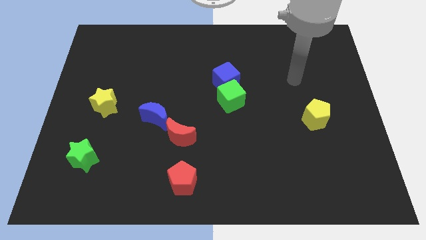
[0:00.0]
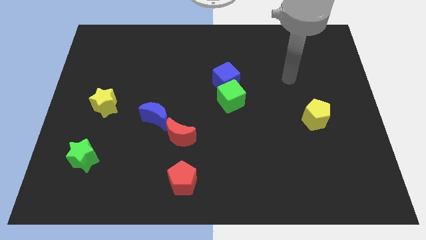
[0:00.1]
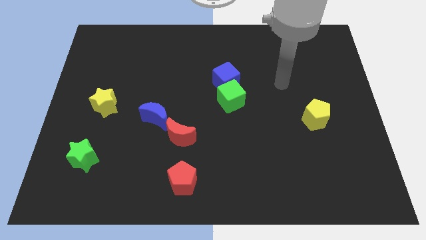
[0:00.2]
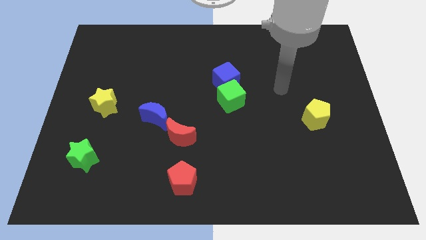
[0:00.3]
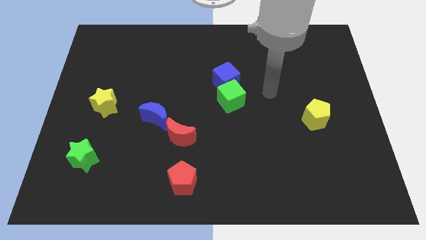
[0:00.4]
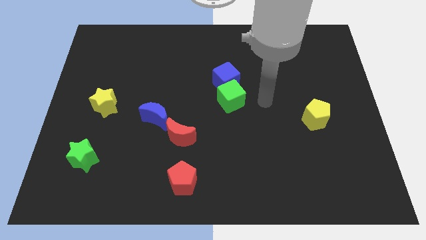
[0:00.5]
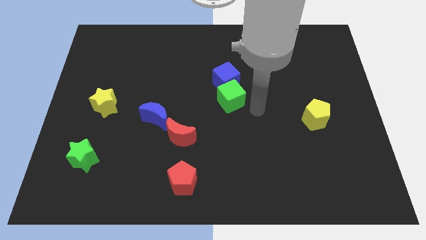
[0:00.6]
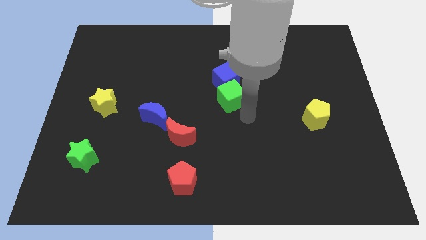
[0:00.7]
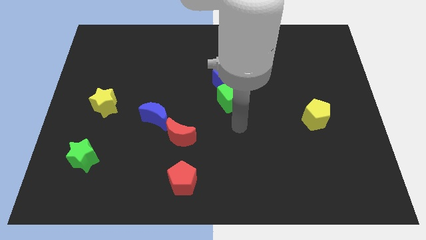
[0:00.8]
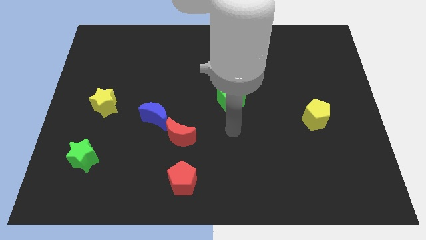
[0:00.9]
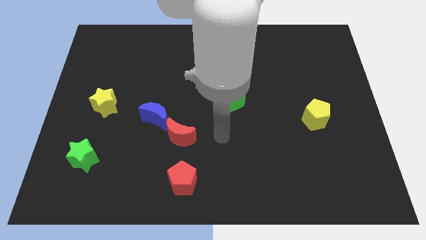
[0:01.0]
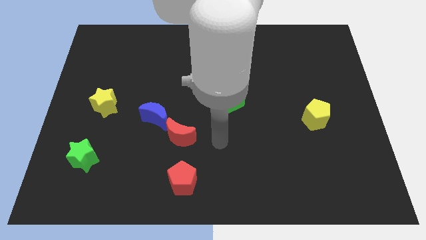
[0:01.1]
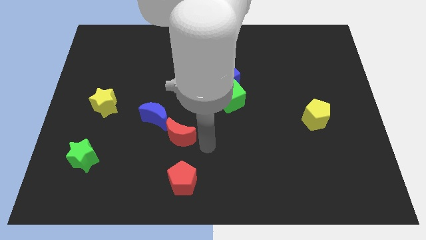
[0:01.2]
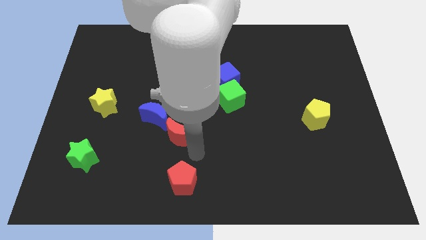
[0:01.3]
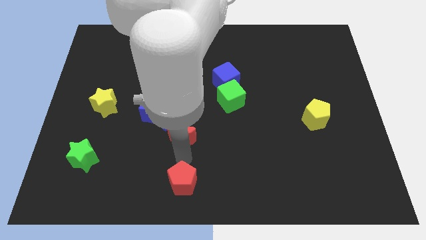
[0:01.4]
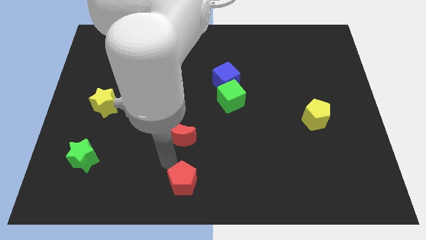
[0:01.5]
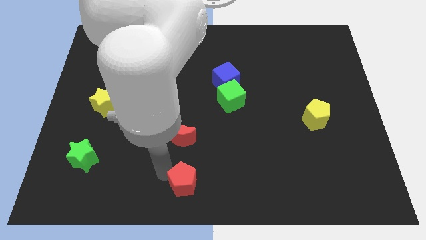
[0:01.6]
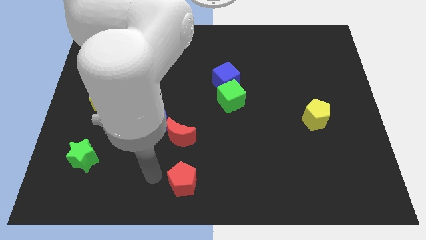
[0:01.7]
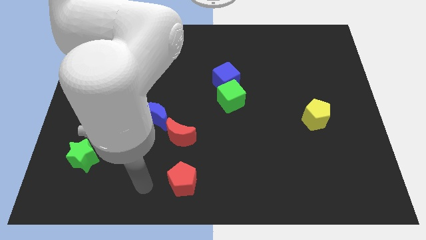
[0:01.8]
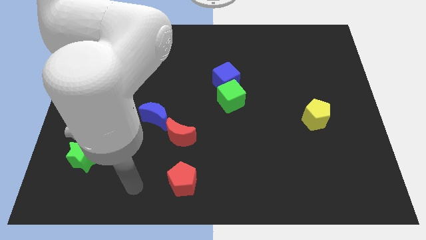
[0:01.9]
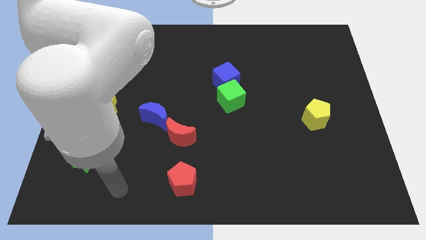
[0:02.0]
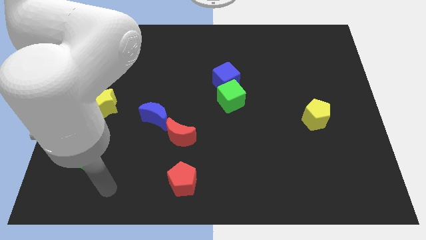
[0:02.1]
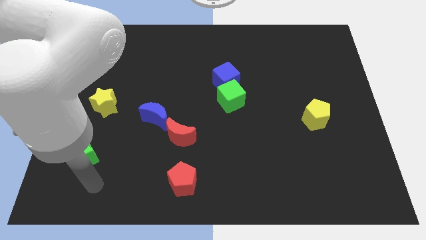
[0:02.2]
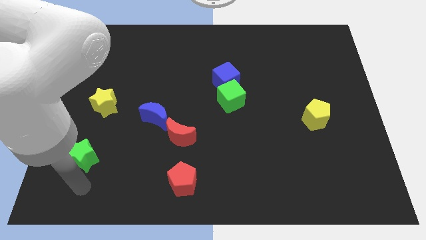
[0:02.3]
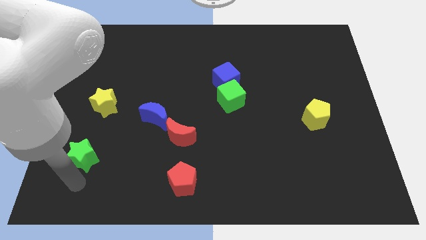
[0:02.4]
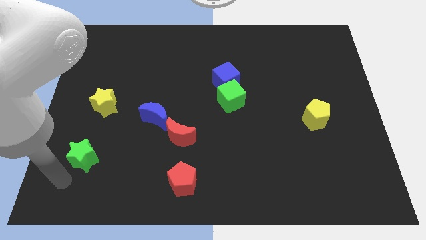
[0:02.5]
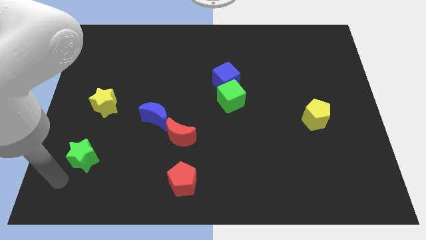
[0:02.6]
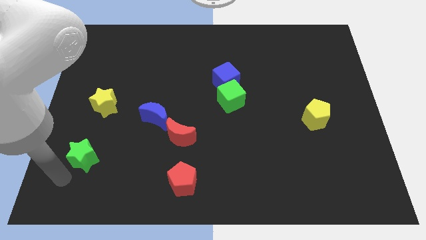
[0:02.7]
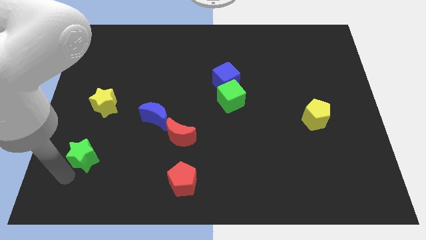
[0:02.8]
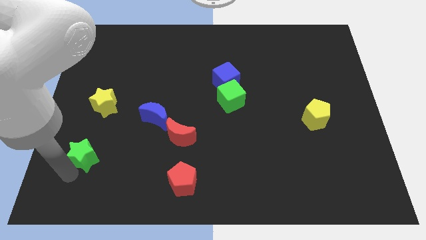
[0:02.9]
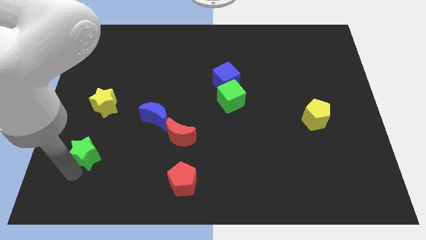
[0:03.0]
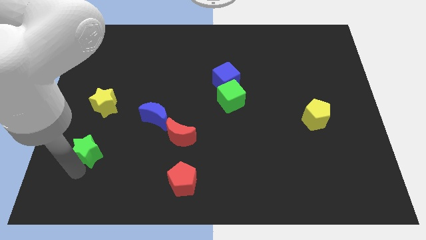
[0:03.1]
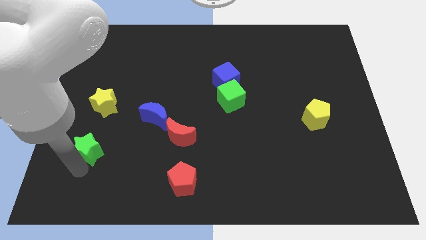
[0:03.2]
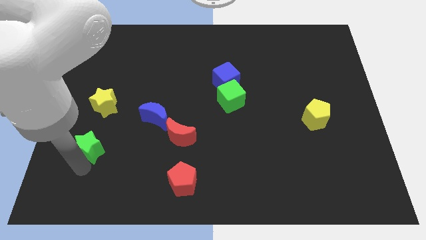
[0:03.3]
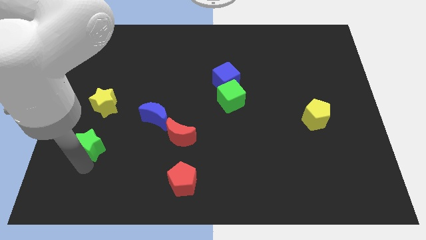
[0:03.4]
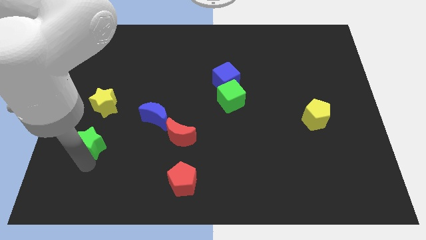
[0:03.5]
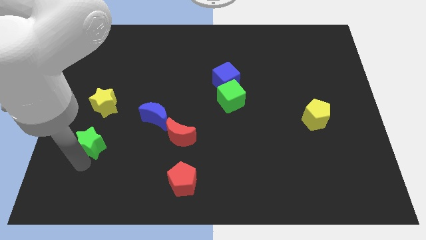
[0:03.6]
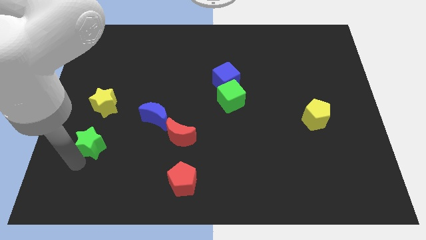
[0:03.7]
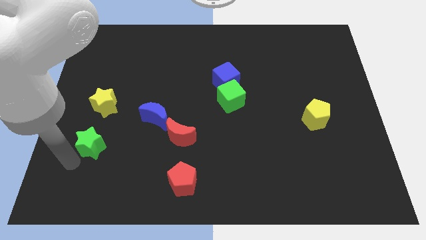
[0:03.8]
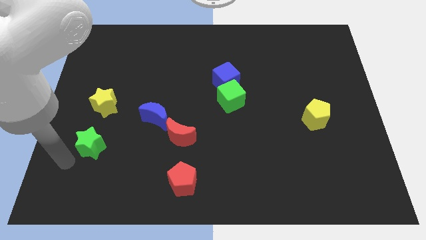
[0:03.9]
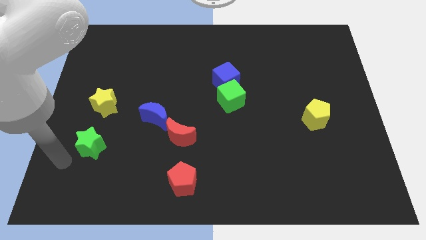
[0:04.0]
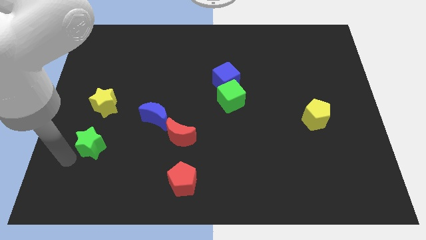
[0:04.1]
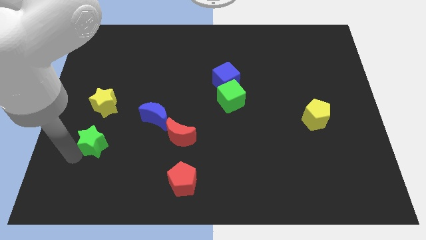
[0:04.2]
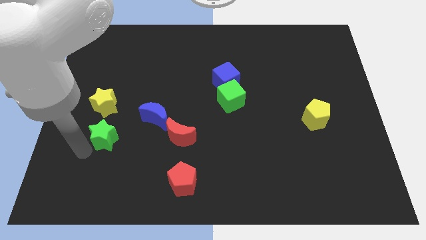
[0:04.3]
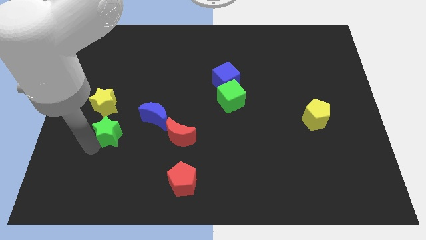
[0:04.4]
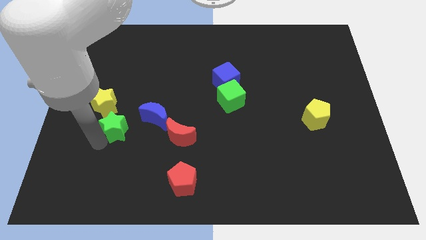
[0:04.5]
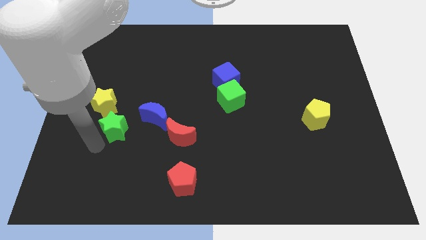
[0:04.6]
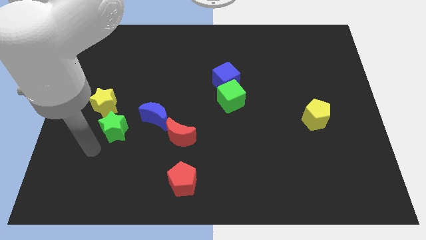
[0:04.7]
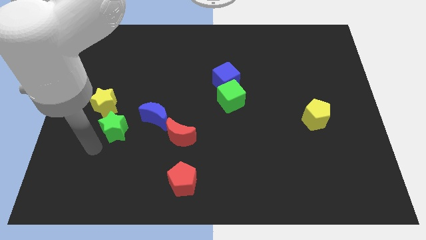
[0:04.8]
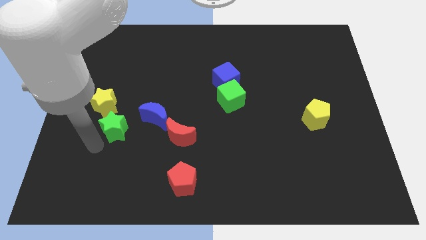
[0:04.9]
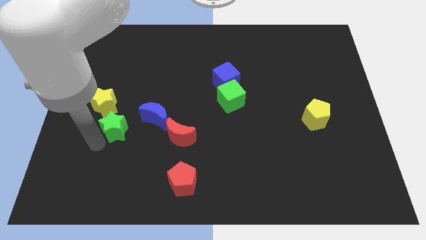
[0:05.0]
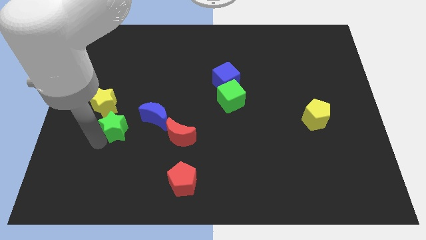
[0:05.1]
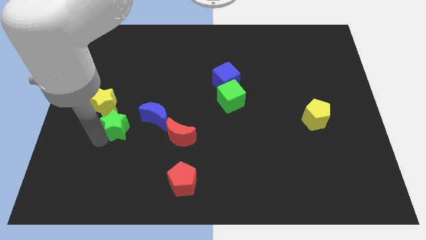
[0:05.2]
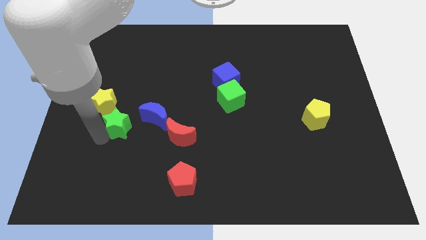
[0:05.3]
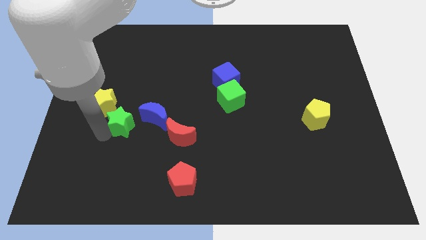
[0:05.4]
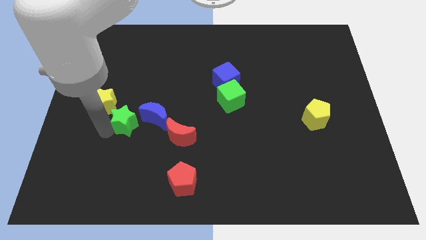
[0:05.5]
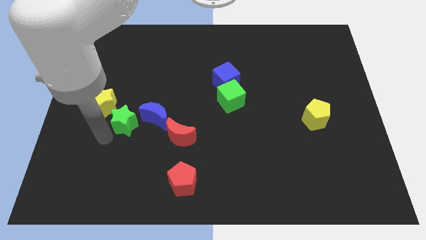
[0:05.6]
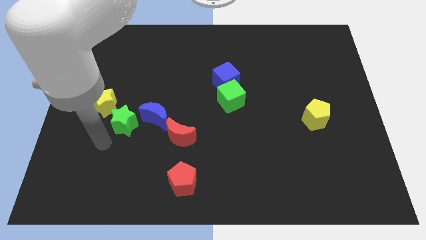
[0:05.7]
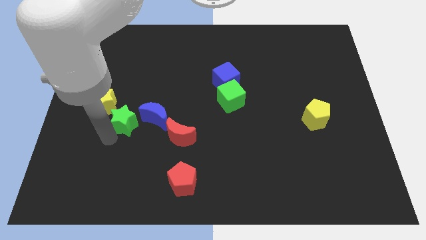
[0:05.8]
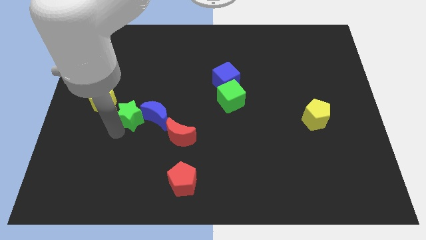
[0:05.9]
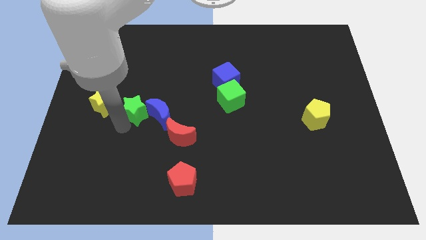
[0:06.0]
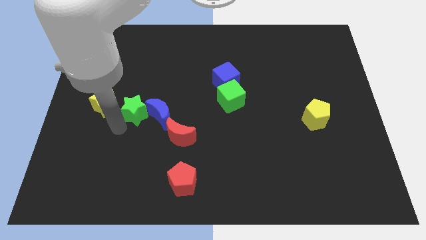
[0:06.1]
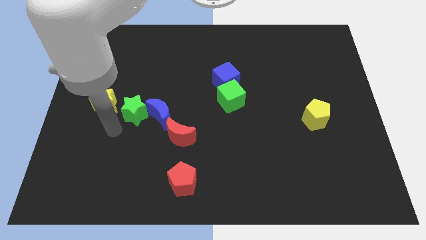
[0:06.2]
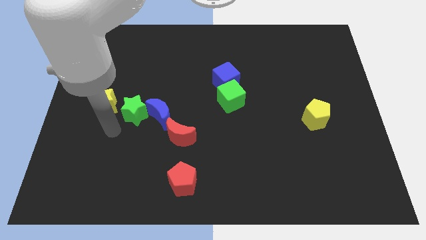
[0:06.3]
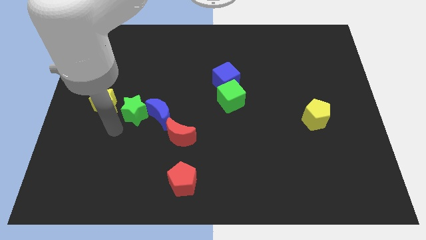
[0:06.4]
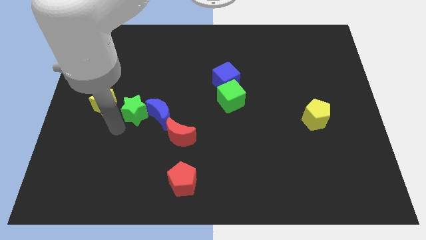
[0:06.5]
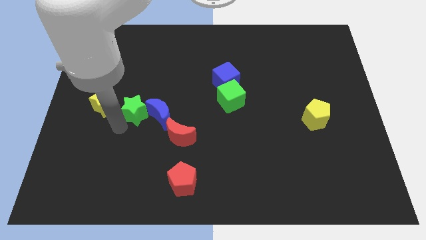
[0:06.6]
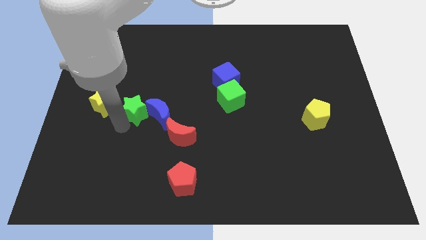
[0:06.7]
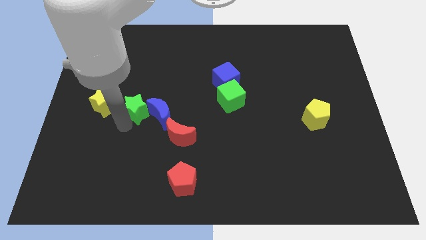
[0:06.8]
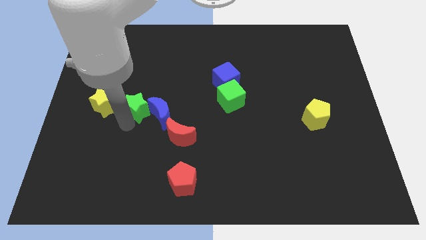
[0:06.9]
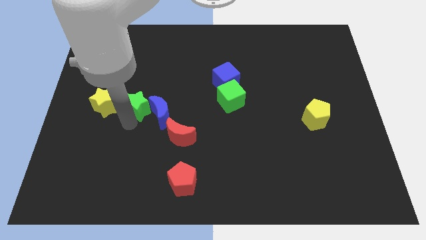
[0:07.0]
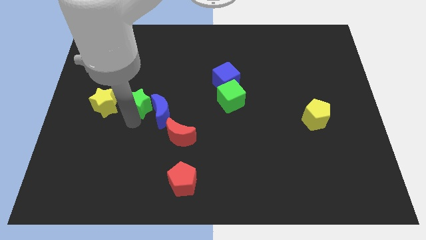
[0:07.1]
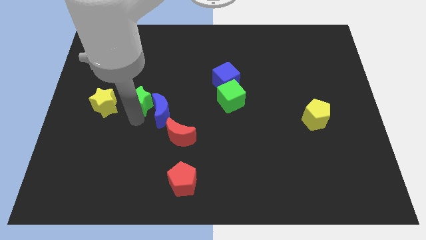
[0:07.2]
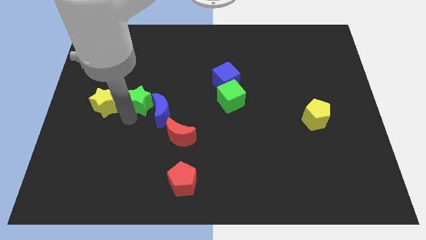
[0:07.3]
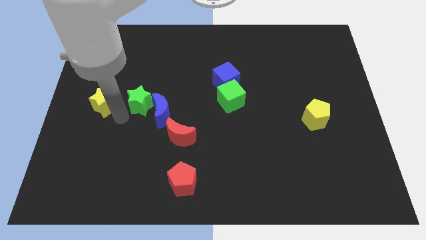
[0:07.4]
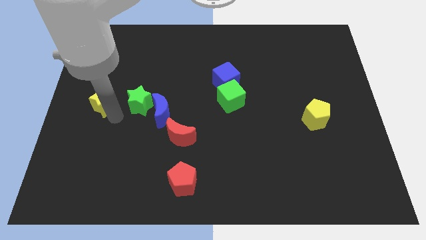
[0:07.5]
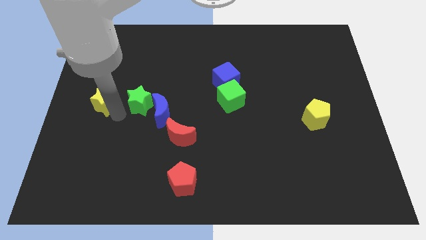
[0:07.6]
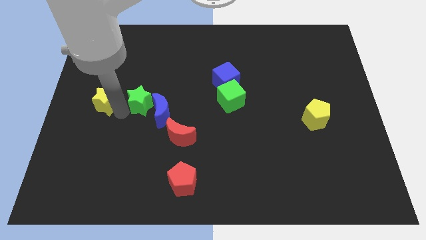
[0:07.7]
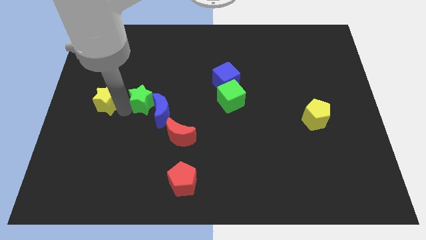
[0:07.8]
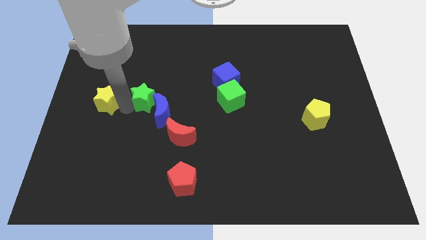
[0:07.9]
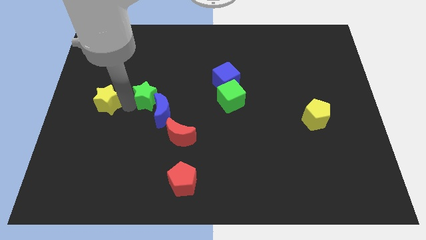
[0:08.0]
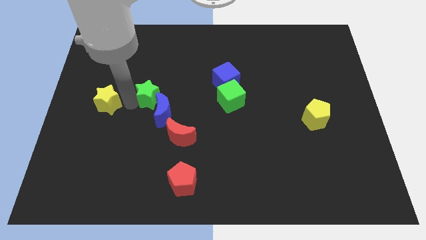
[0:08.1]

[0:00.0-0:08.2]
move the green star up and to the right diagonally
